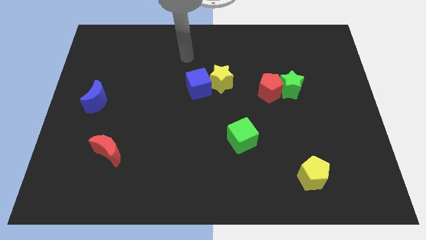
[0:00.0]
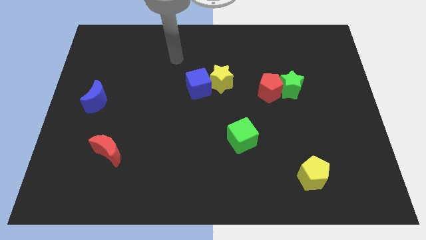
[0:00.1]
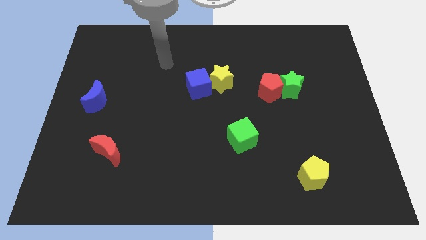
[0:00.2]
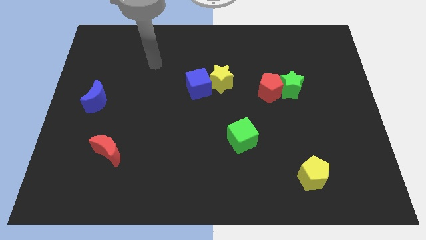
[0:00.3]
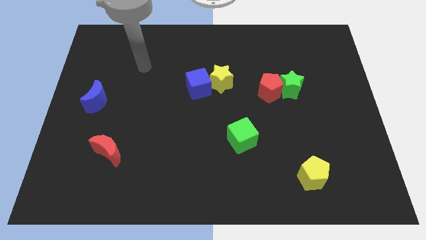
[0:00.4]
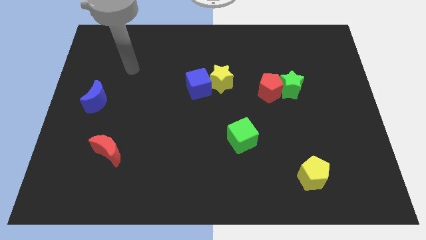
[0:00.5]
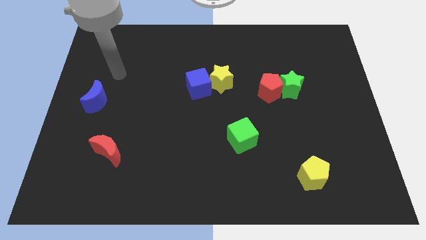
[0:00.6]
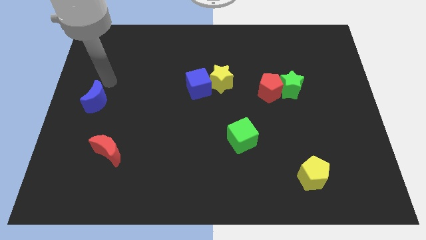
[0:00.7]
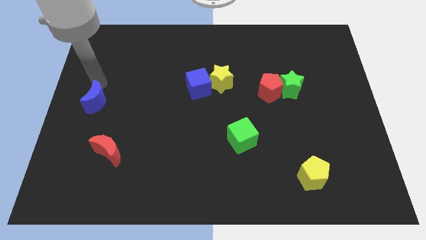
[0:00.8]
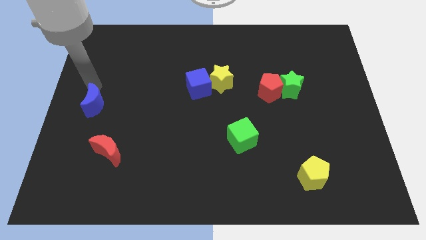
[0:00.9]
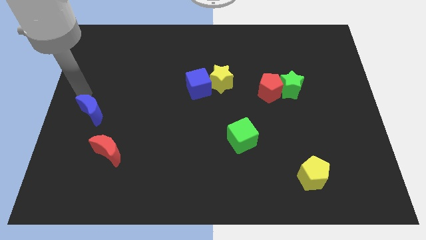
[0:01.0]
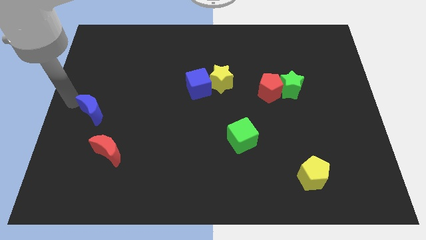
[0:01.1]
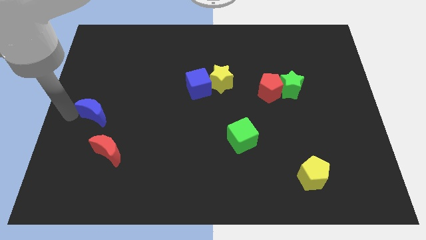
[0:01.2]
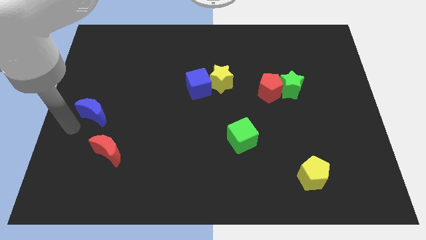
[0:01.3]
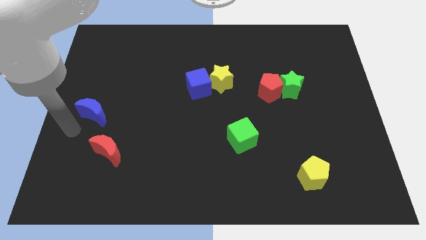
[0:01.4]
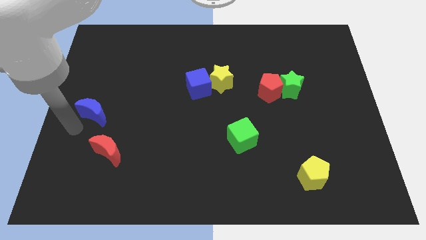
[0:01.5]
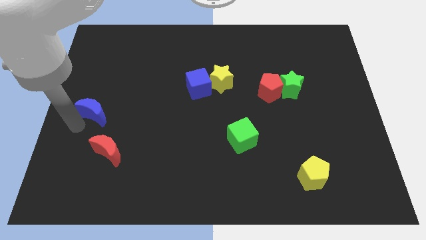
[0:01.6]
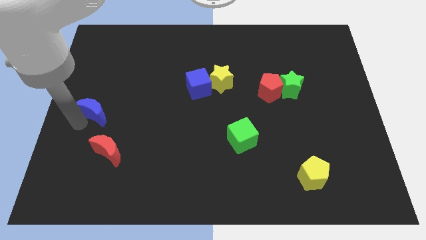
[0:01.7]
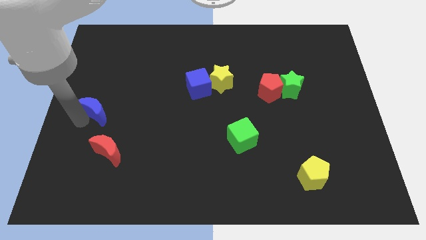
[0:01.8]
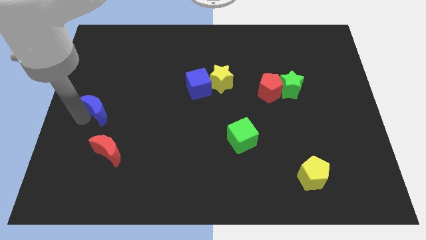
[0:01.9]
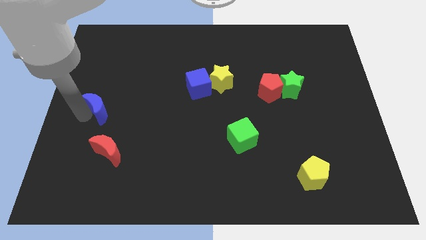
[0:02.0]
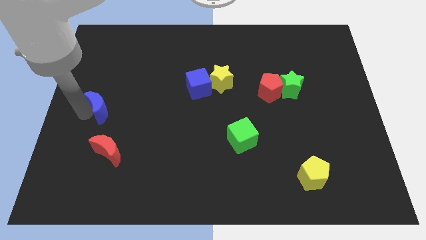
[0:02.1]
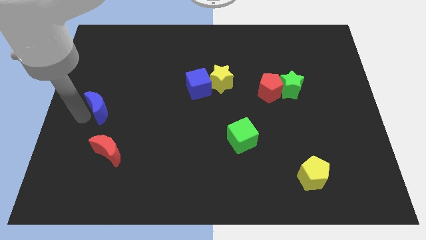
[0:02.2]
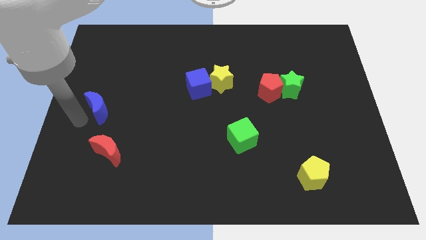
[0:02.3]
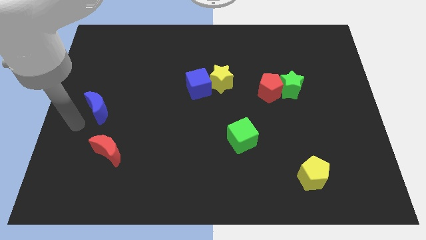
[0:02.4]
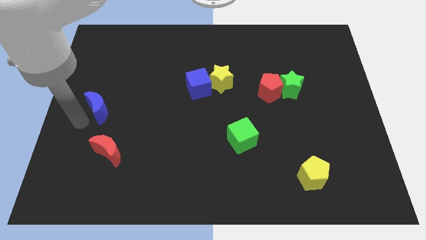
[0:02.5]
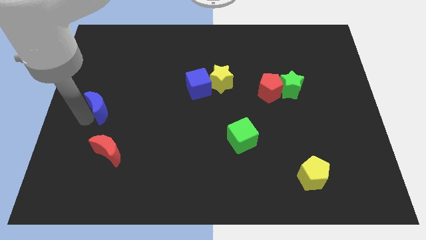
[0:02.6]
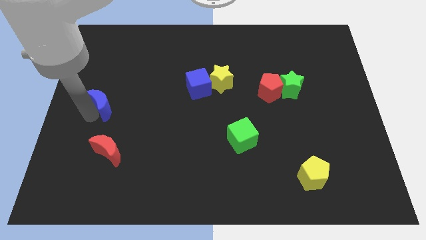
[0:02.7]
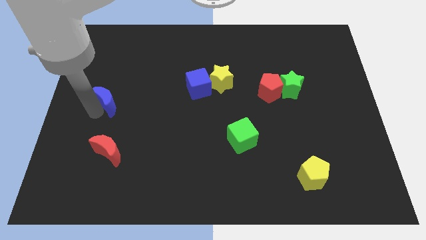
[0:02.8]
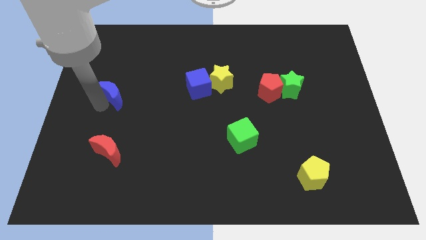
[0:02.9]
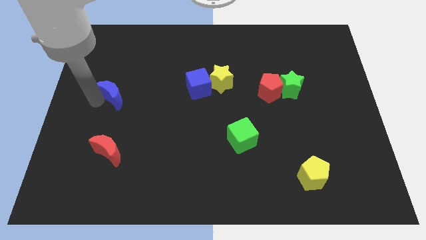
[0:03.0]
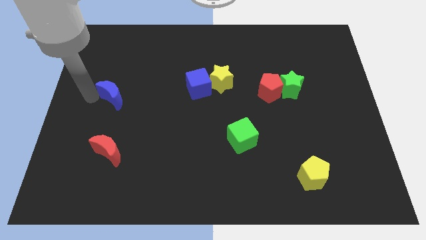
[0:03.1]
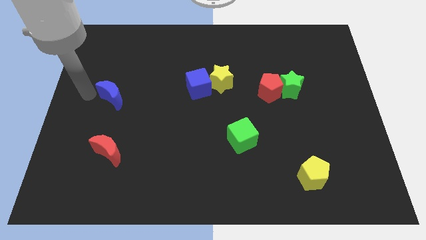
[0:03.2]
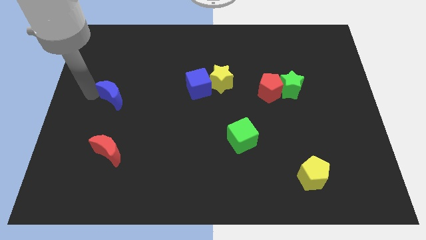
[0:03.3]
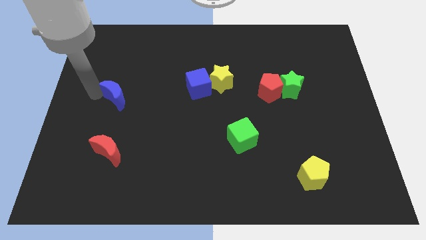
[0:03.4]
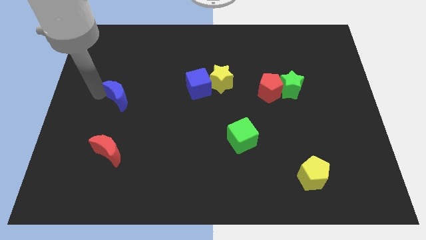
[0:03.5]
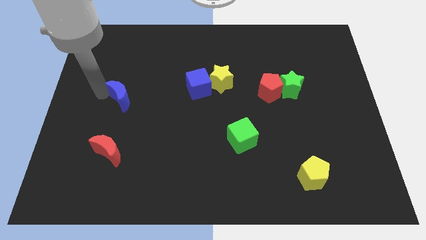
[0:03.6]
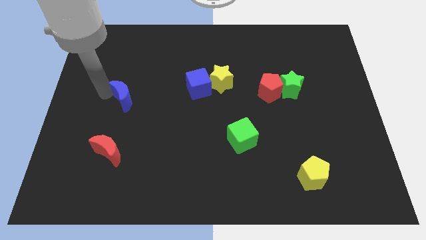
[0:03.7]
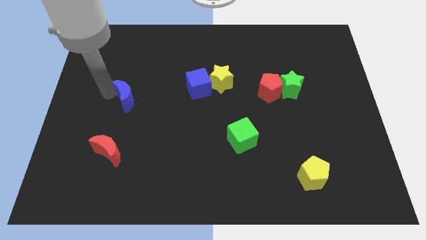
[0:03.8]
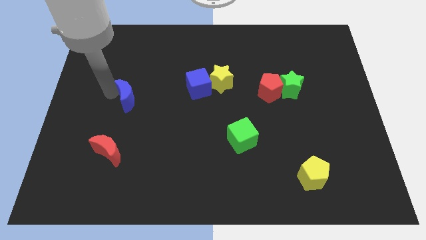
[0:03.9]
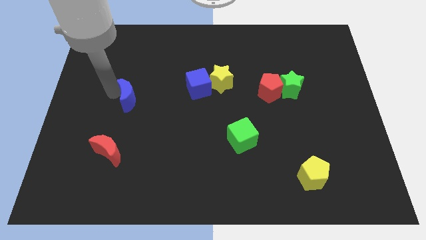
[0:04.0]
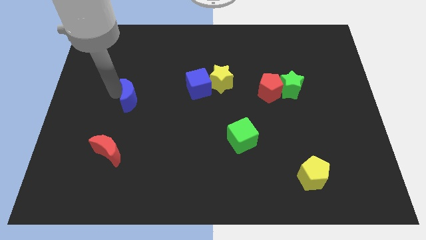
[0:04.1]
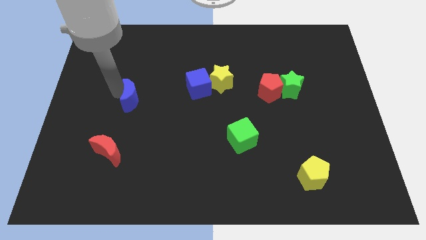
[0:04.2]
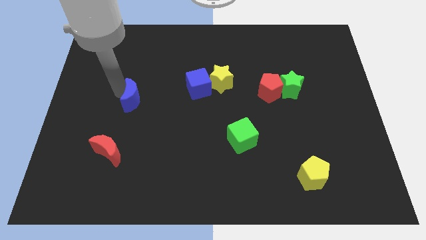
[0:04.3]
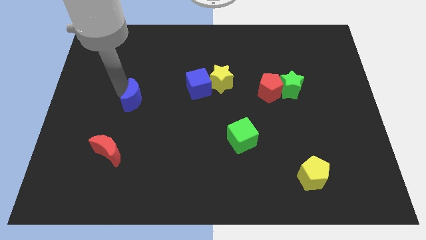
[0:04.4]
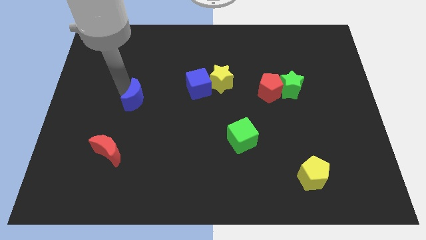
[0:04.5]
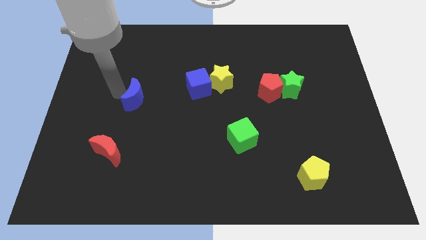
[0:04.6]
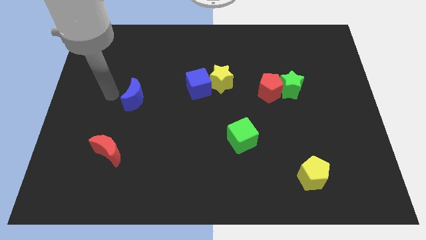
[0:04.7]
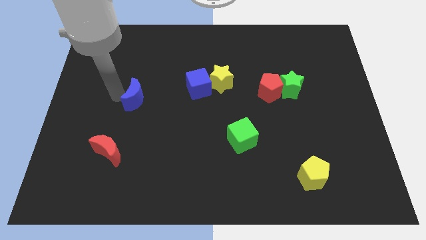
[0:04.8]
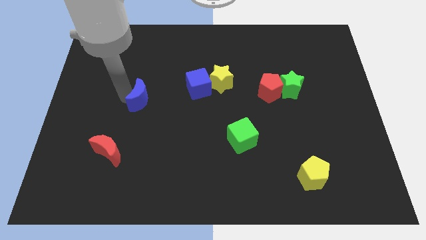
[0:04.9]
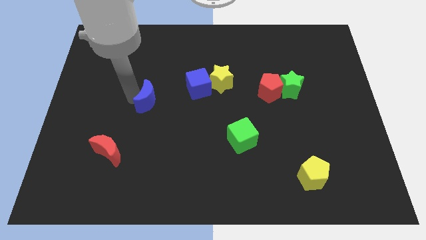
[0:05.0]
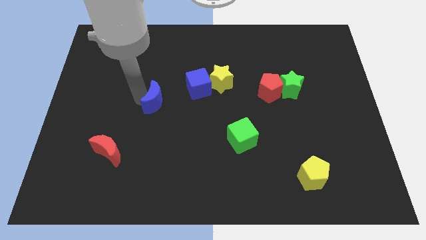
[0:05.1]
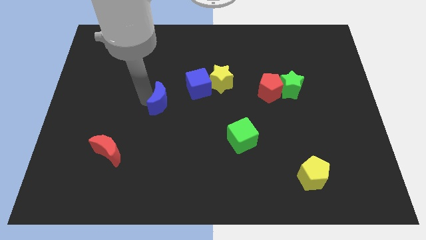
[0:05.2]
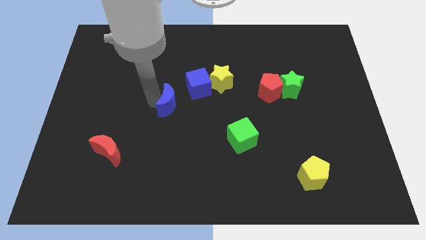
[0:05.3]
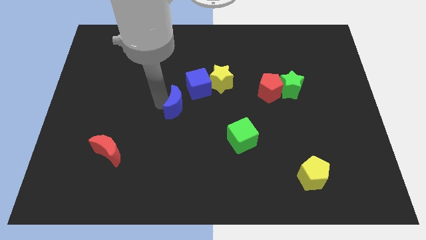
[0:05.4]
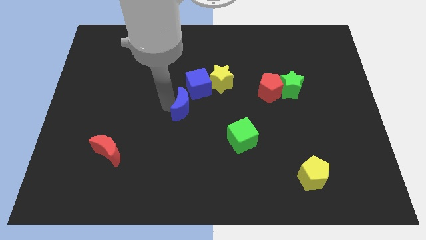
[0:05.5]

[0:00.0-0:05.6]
slide the blue moon to the right

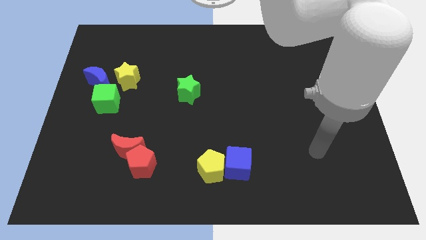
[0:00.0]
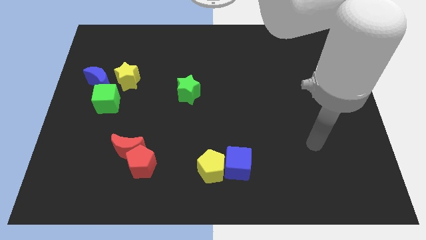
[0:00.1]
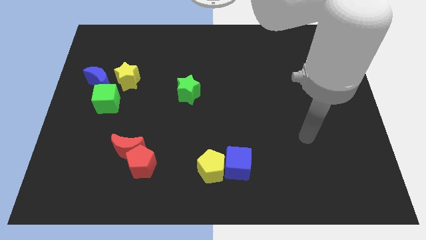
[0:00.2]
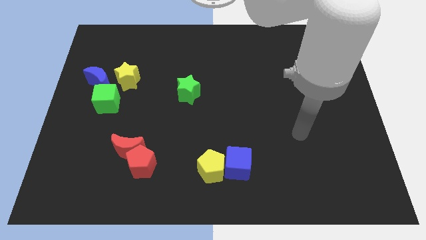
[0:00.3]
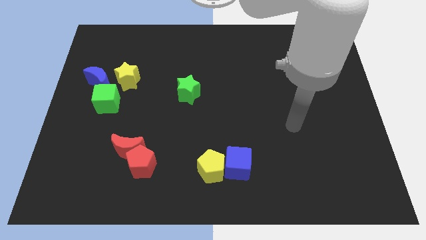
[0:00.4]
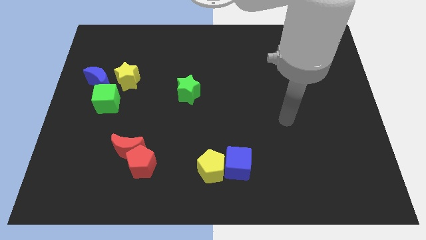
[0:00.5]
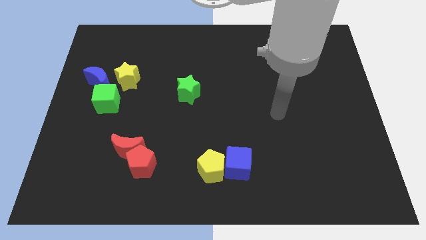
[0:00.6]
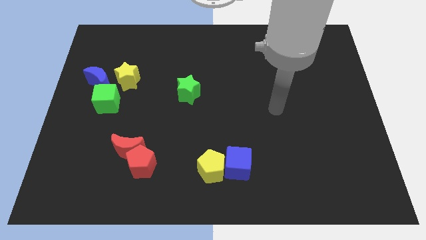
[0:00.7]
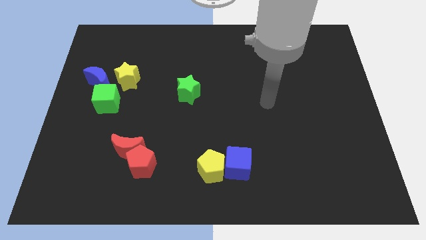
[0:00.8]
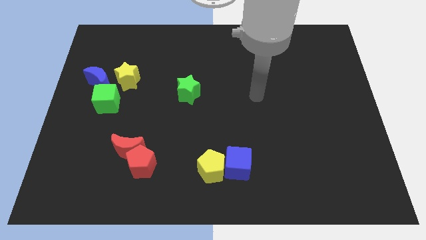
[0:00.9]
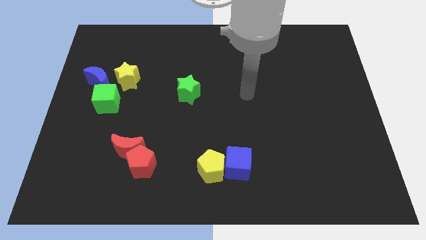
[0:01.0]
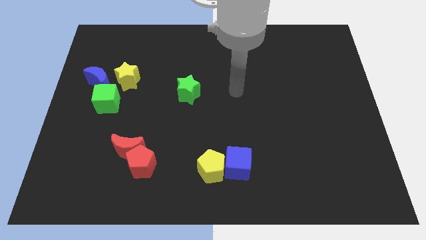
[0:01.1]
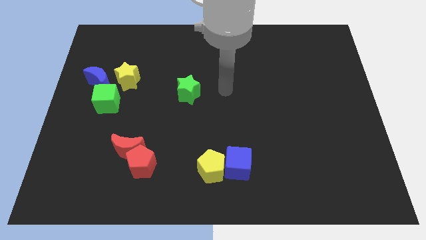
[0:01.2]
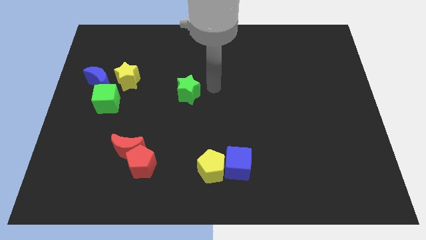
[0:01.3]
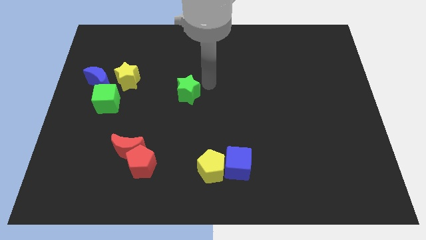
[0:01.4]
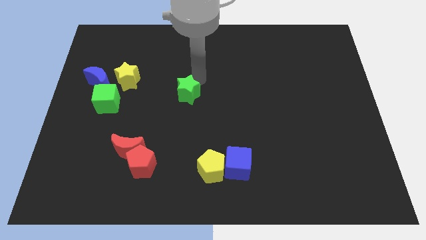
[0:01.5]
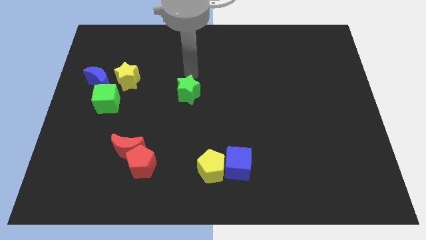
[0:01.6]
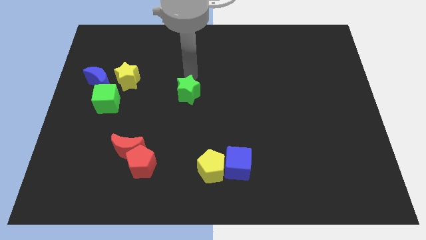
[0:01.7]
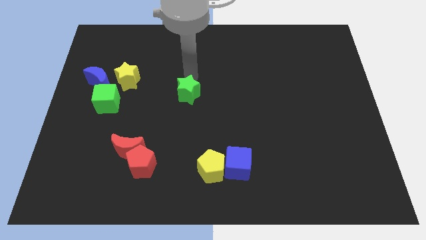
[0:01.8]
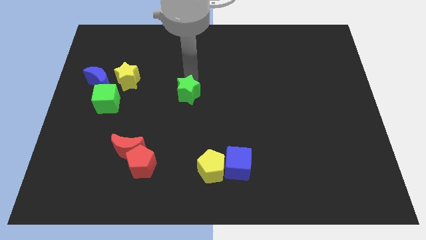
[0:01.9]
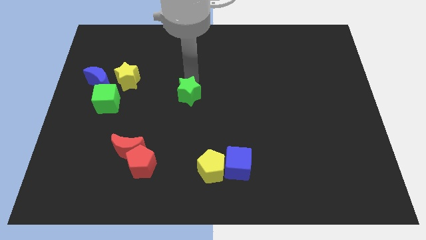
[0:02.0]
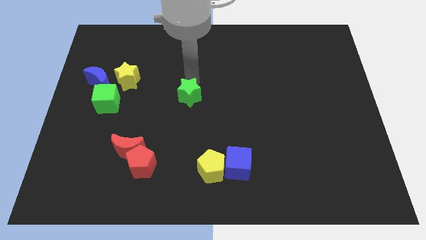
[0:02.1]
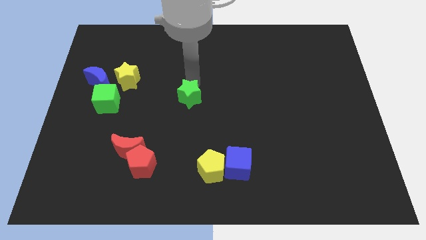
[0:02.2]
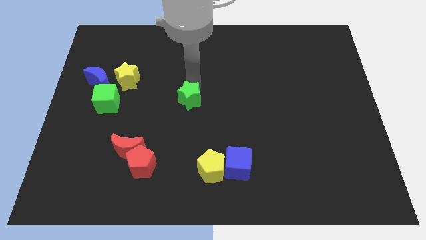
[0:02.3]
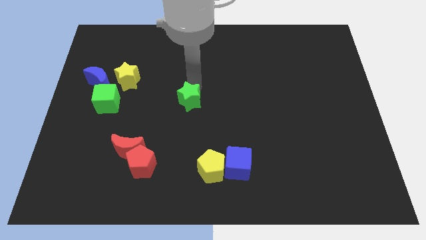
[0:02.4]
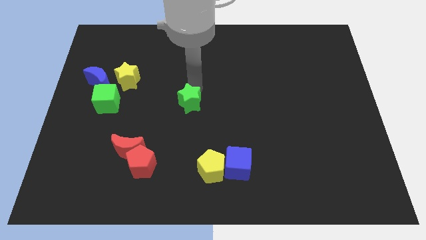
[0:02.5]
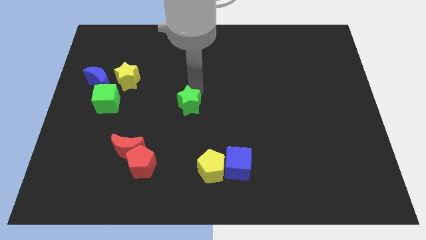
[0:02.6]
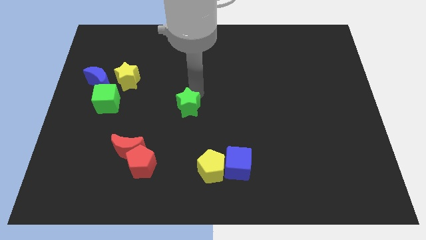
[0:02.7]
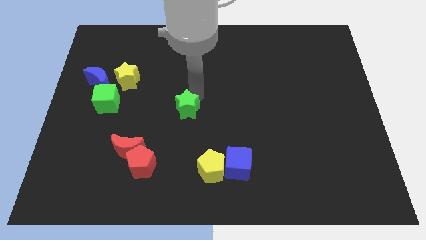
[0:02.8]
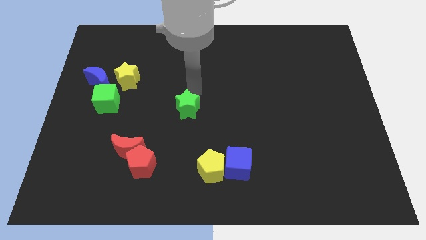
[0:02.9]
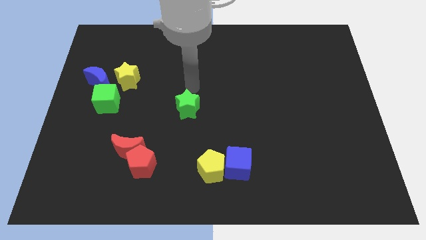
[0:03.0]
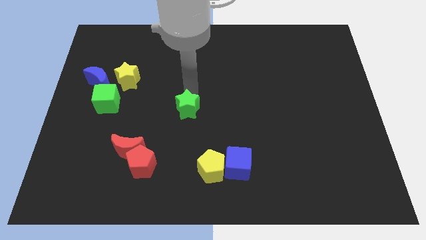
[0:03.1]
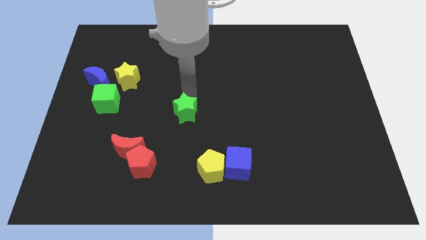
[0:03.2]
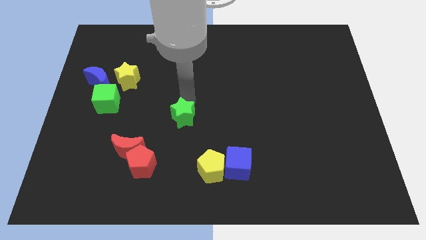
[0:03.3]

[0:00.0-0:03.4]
move the green star downwards somewhat
